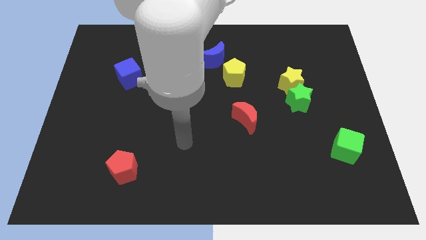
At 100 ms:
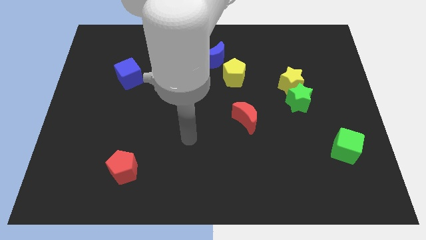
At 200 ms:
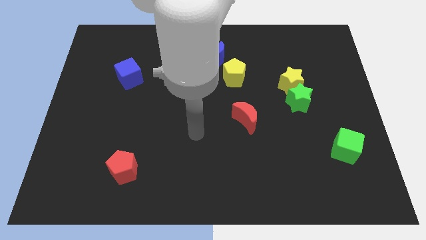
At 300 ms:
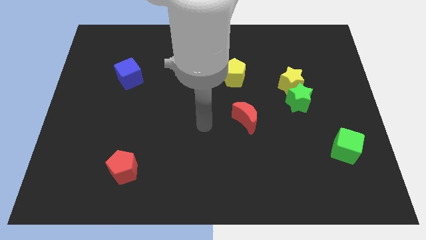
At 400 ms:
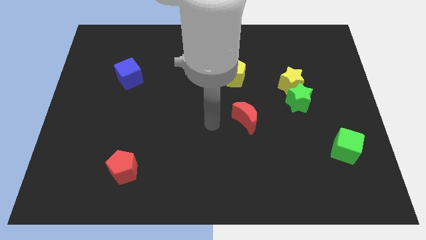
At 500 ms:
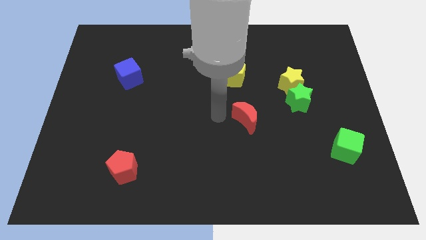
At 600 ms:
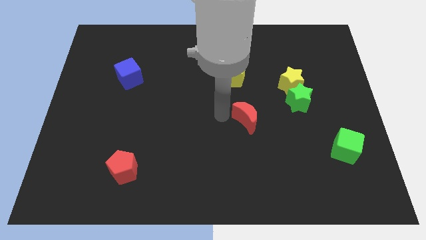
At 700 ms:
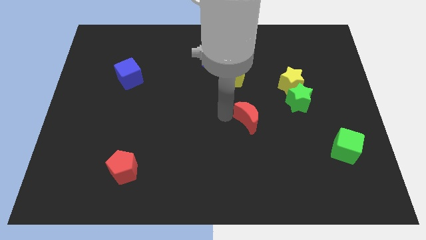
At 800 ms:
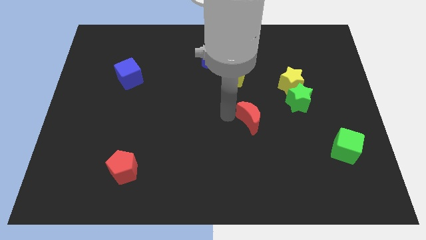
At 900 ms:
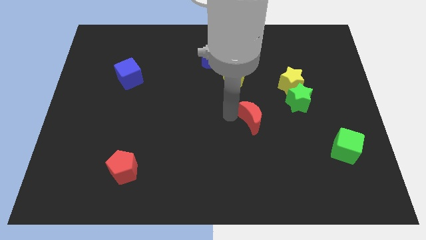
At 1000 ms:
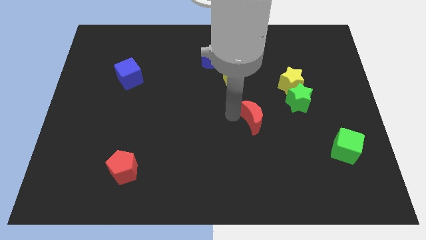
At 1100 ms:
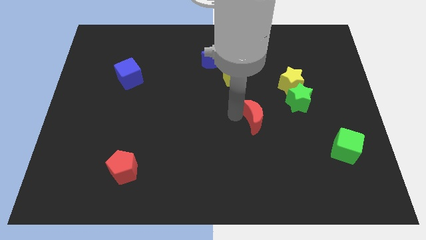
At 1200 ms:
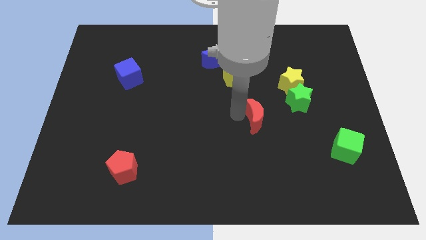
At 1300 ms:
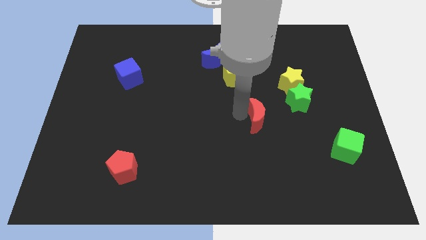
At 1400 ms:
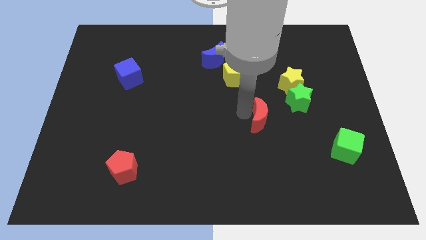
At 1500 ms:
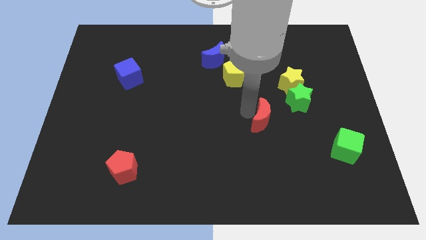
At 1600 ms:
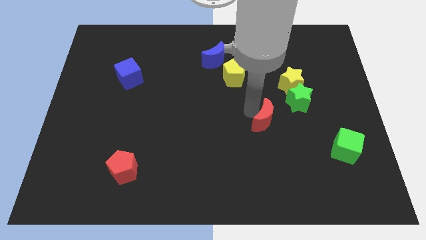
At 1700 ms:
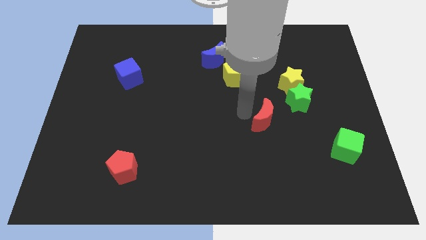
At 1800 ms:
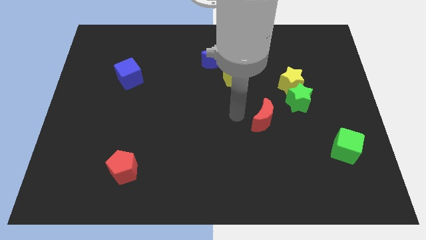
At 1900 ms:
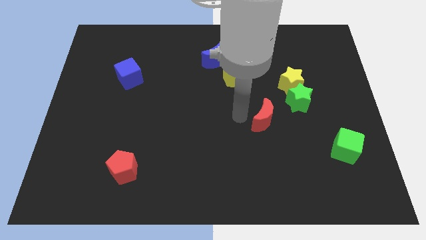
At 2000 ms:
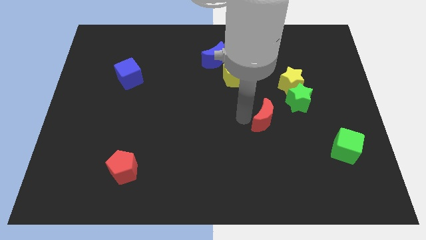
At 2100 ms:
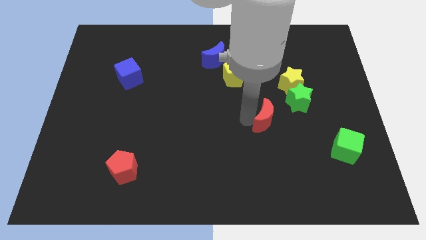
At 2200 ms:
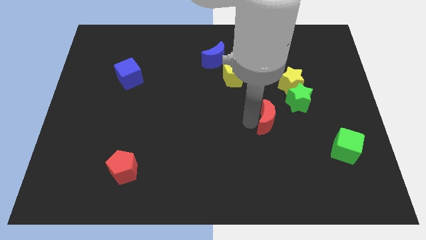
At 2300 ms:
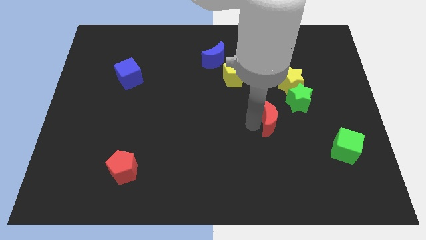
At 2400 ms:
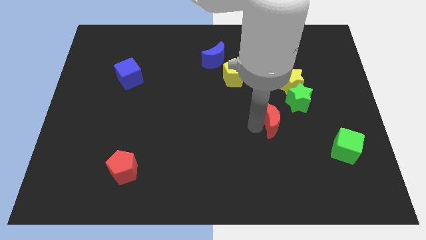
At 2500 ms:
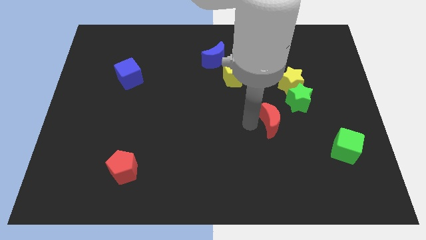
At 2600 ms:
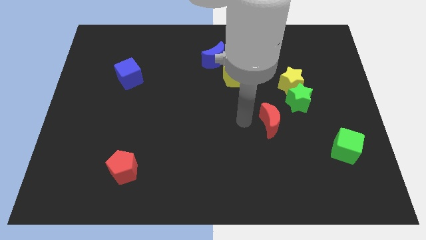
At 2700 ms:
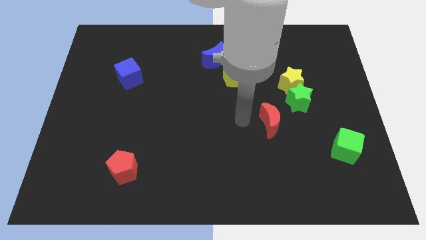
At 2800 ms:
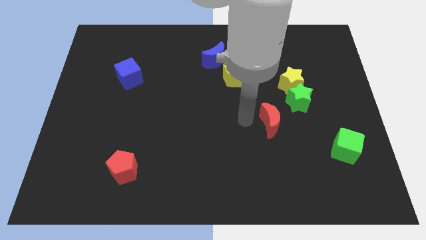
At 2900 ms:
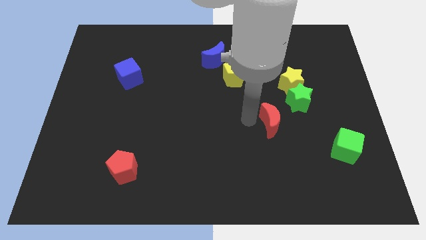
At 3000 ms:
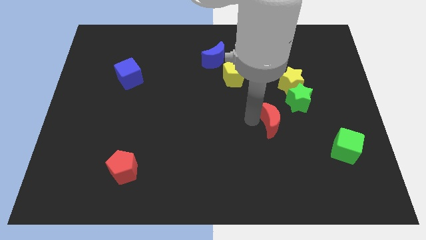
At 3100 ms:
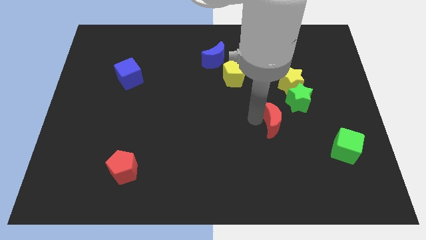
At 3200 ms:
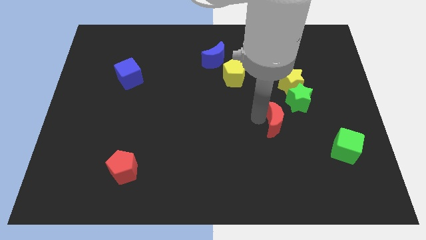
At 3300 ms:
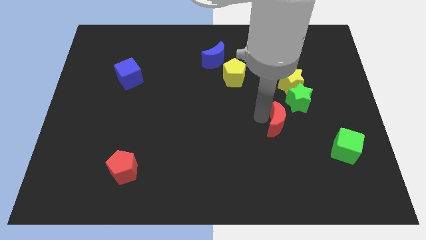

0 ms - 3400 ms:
push the red moon slightly to the right

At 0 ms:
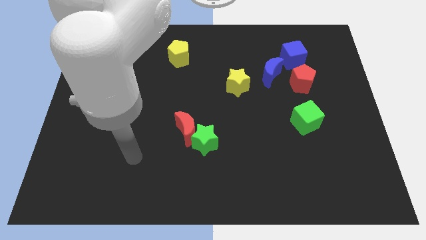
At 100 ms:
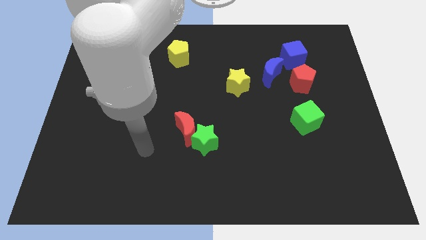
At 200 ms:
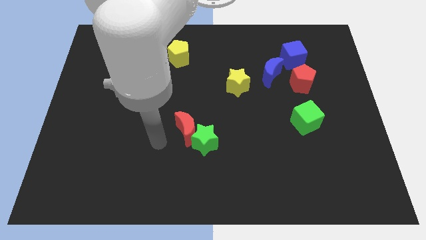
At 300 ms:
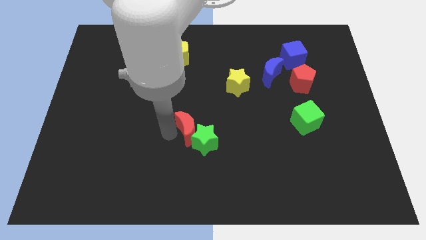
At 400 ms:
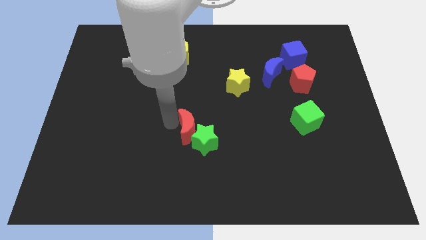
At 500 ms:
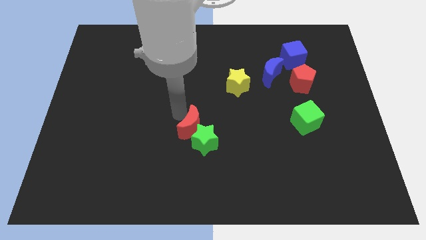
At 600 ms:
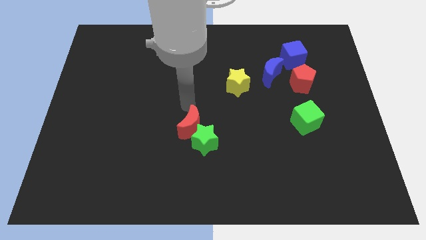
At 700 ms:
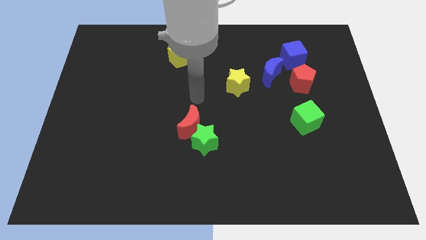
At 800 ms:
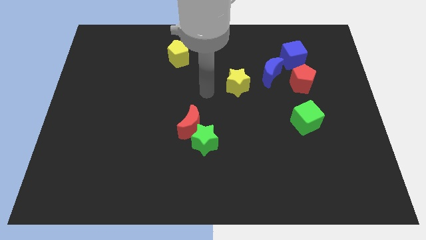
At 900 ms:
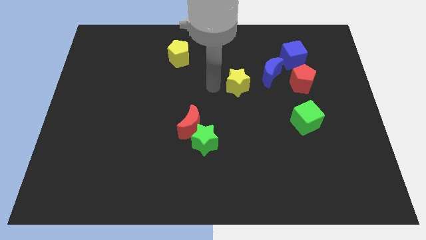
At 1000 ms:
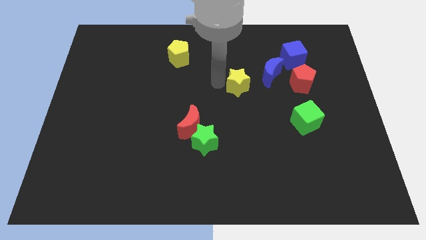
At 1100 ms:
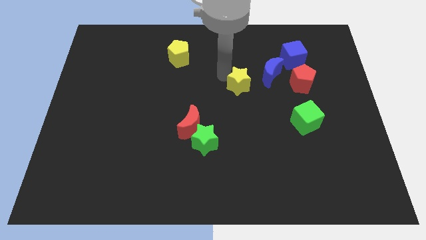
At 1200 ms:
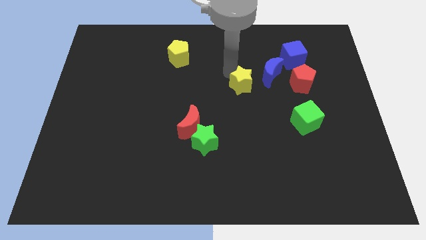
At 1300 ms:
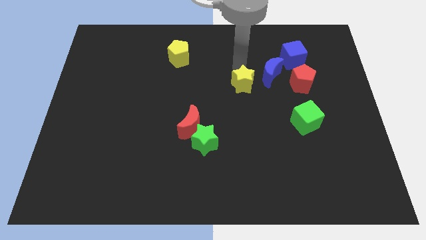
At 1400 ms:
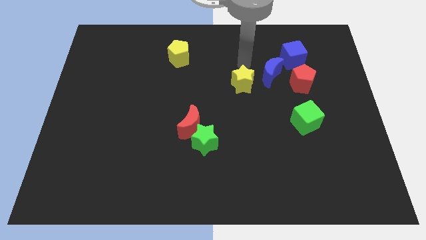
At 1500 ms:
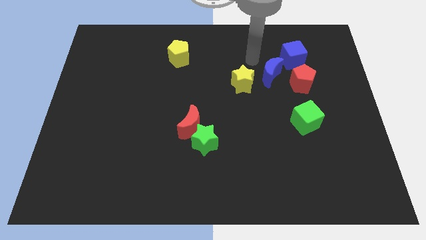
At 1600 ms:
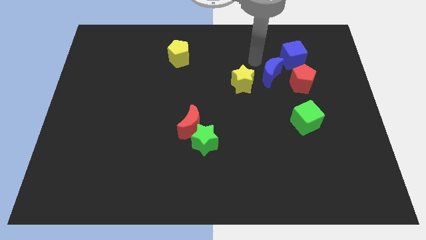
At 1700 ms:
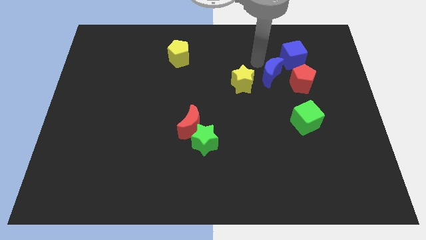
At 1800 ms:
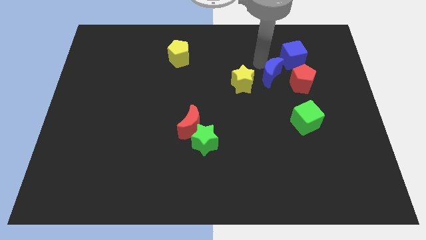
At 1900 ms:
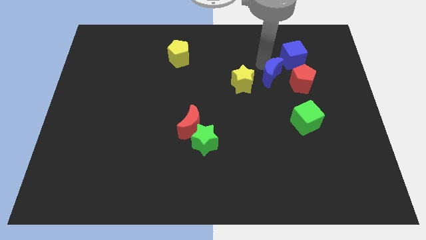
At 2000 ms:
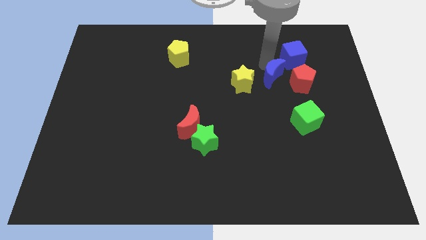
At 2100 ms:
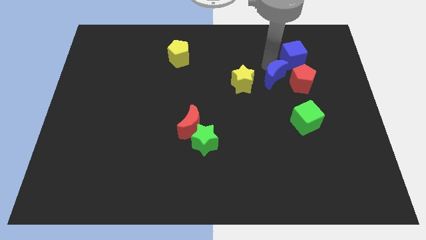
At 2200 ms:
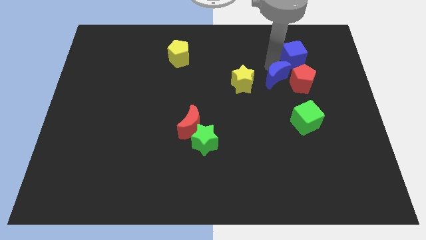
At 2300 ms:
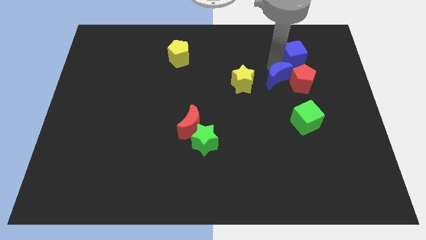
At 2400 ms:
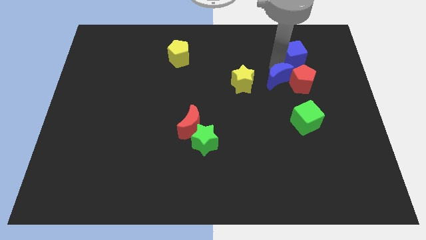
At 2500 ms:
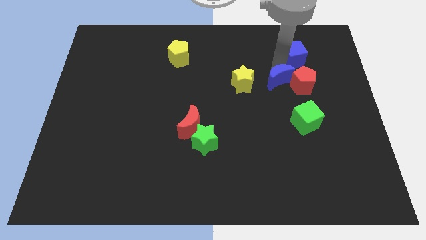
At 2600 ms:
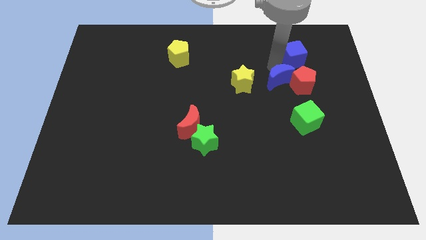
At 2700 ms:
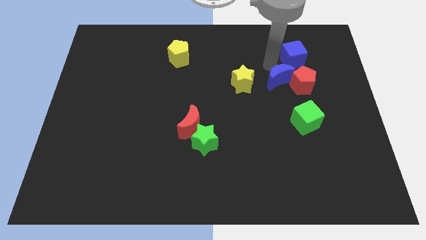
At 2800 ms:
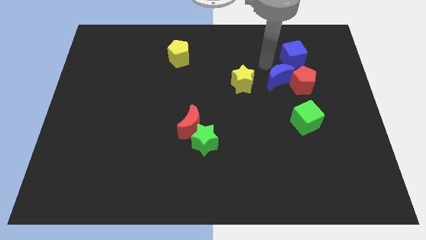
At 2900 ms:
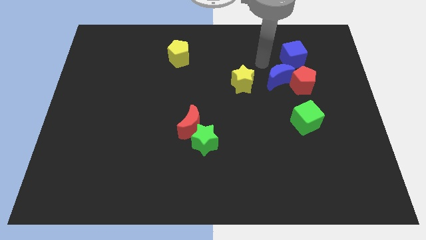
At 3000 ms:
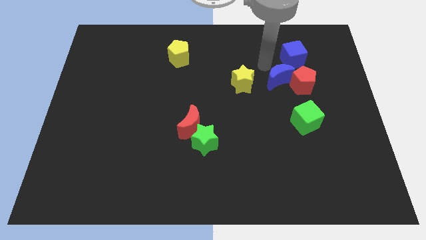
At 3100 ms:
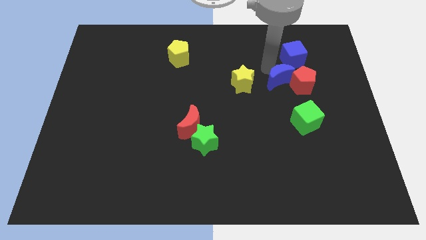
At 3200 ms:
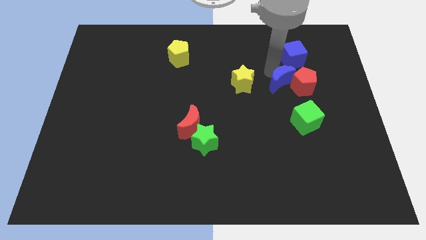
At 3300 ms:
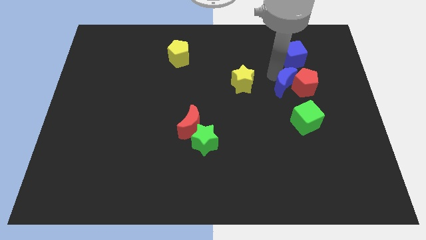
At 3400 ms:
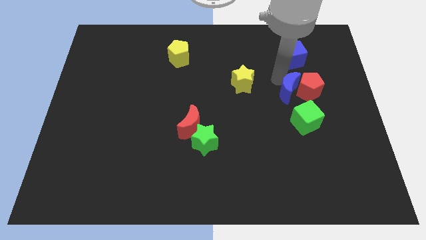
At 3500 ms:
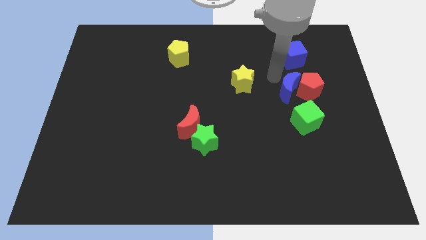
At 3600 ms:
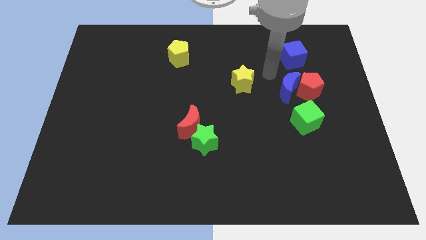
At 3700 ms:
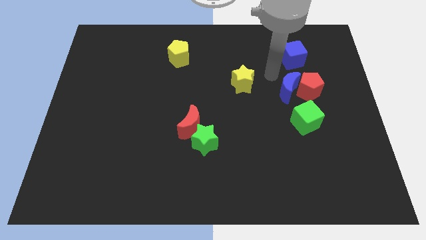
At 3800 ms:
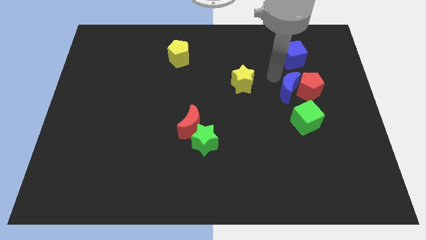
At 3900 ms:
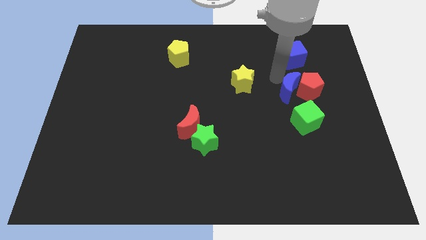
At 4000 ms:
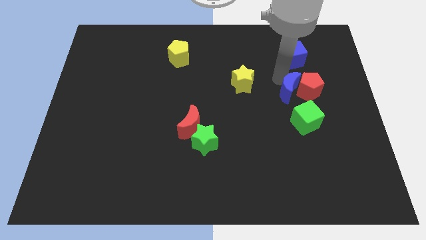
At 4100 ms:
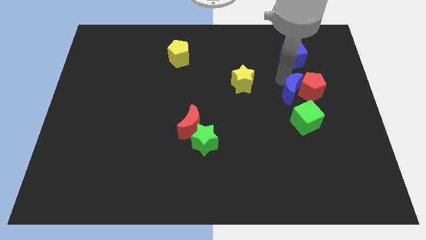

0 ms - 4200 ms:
slightly slide the blue moon down and then to the right
